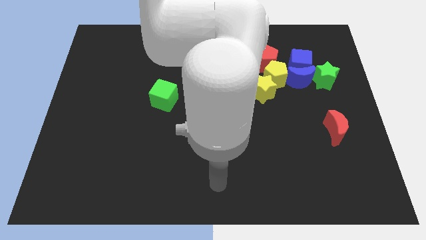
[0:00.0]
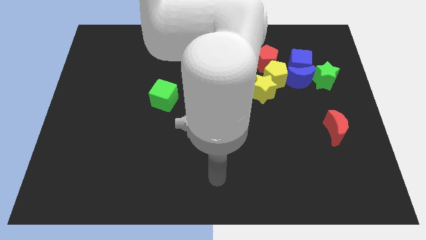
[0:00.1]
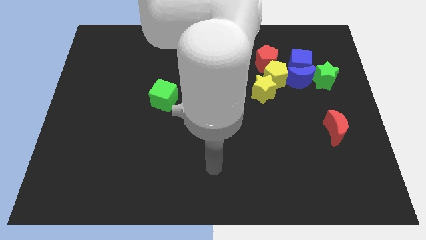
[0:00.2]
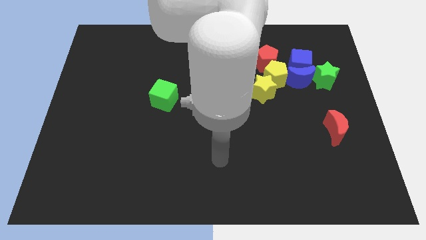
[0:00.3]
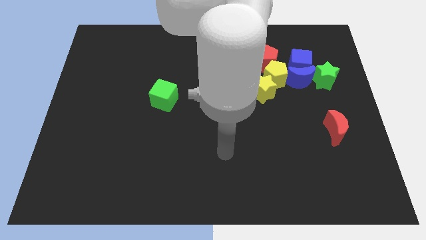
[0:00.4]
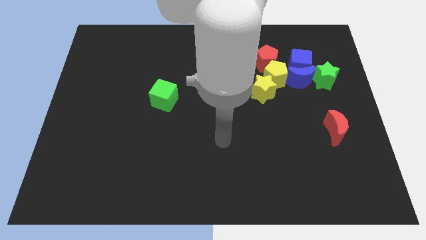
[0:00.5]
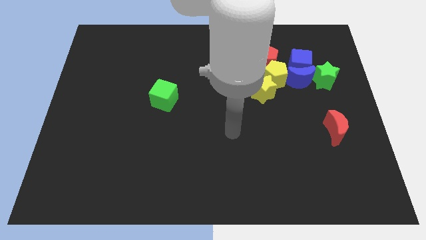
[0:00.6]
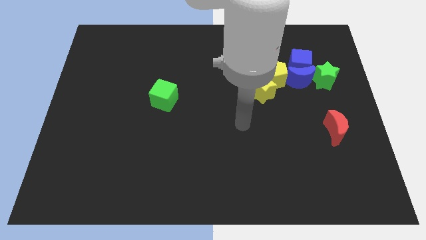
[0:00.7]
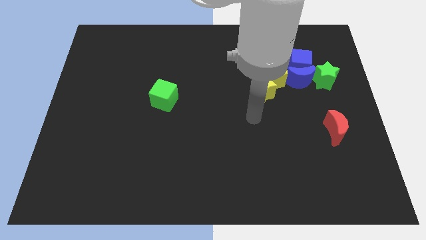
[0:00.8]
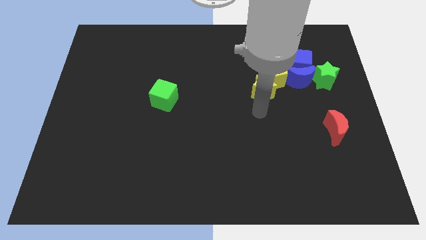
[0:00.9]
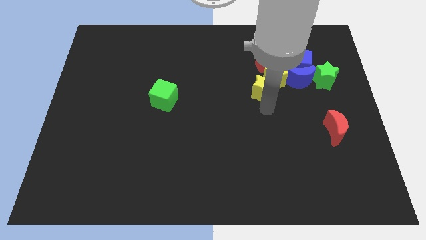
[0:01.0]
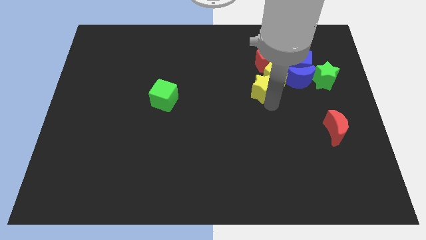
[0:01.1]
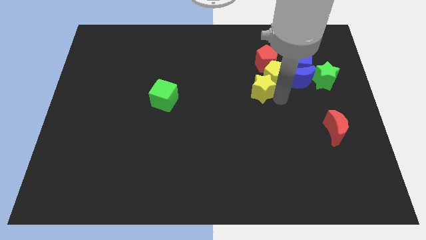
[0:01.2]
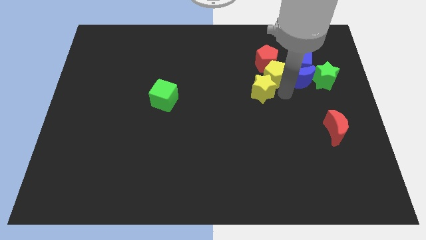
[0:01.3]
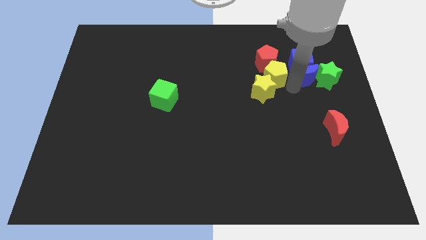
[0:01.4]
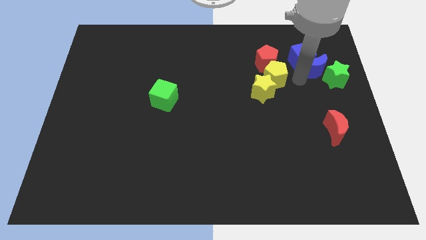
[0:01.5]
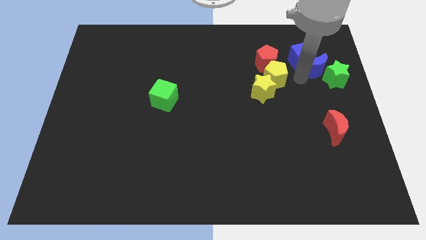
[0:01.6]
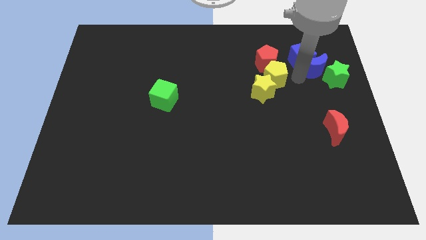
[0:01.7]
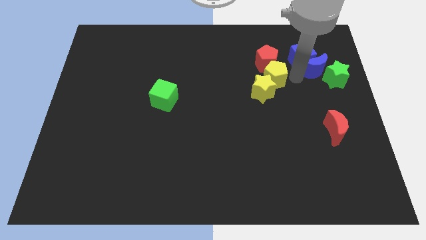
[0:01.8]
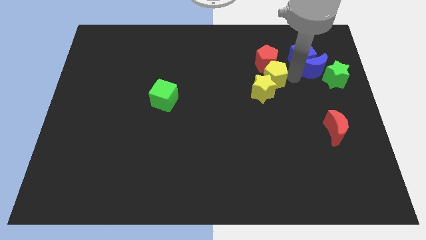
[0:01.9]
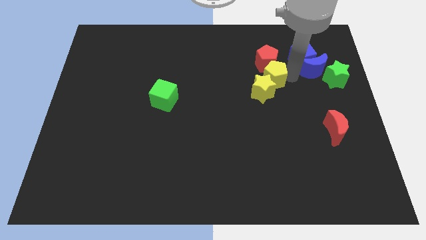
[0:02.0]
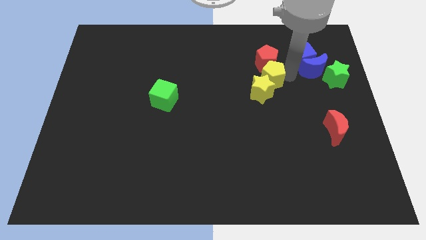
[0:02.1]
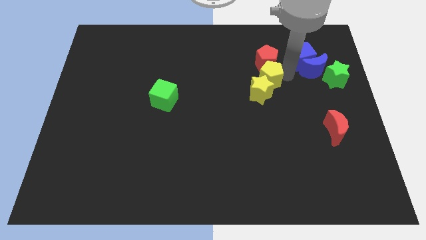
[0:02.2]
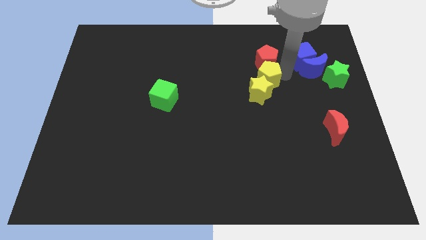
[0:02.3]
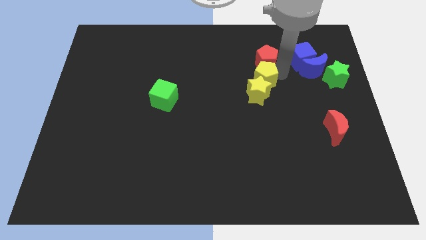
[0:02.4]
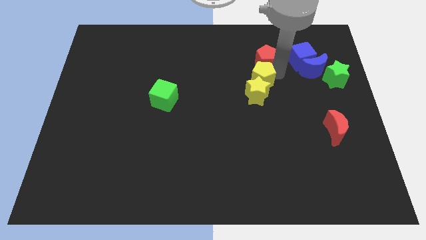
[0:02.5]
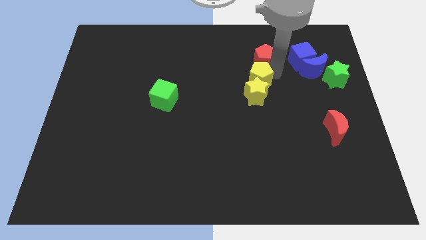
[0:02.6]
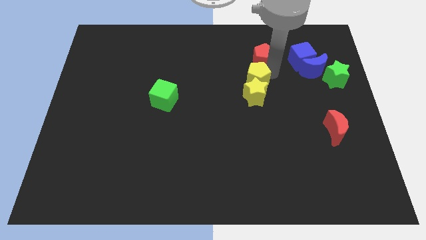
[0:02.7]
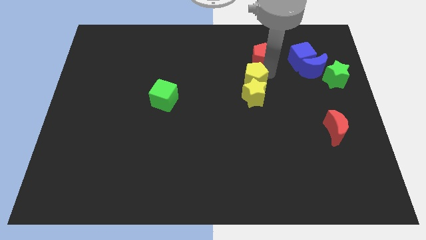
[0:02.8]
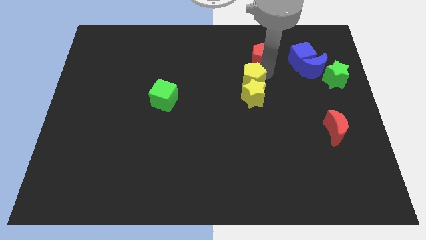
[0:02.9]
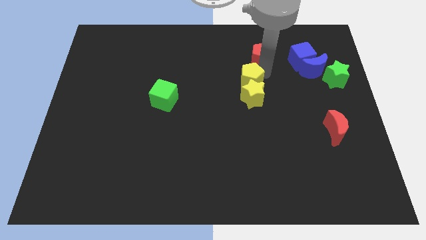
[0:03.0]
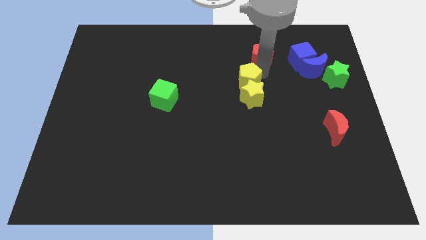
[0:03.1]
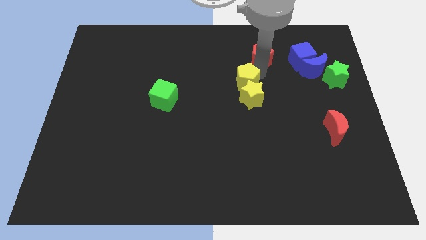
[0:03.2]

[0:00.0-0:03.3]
pull the yellow pentagon apart from the group of blocks

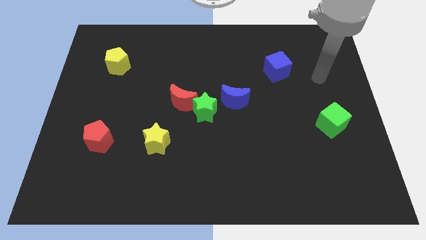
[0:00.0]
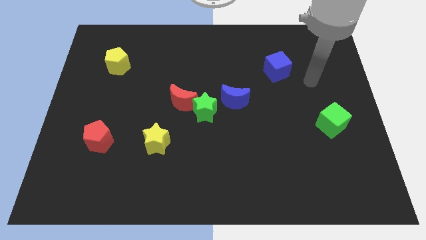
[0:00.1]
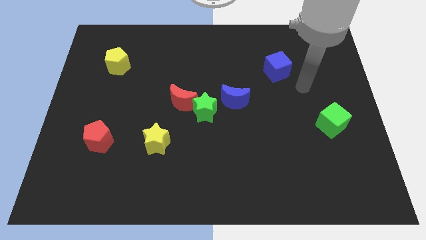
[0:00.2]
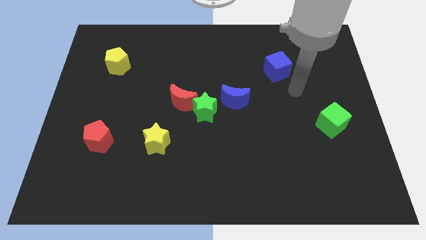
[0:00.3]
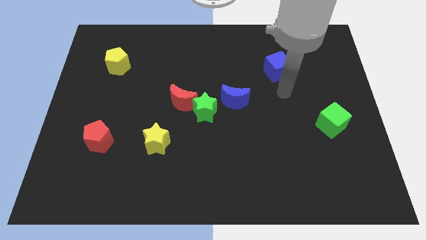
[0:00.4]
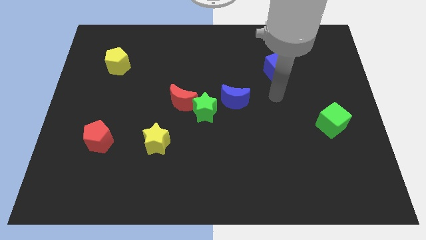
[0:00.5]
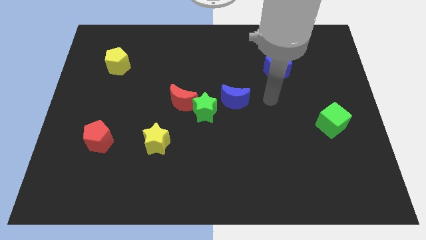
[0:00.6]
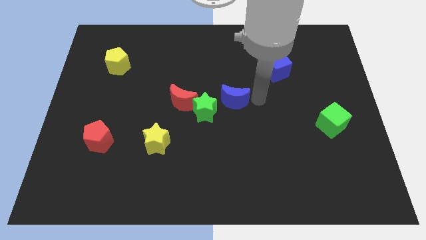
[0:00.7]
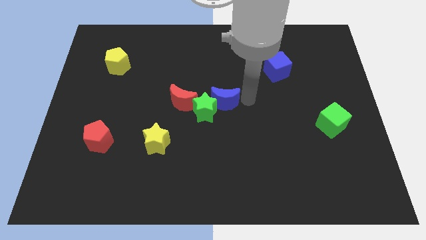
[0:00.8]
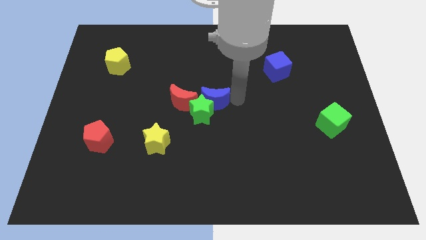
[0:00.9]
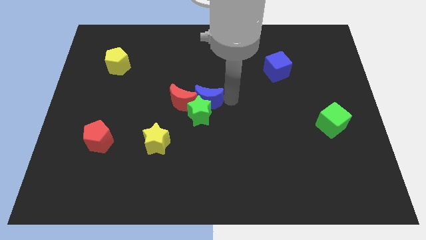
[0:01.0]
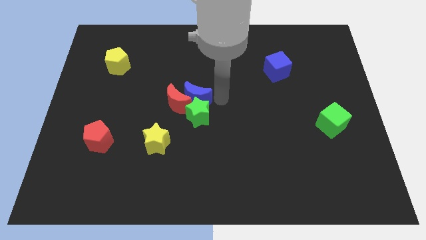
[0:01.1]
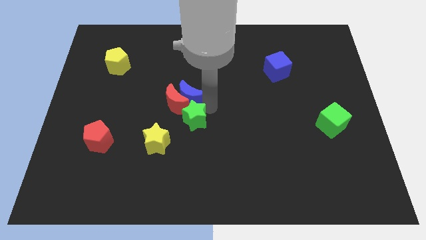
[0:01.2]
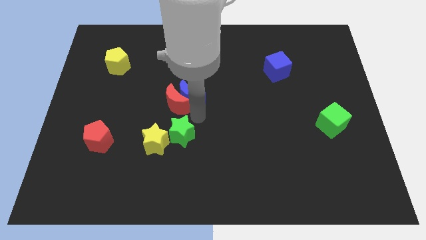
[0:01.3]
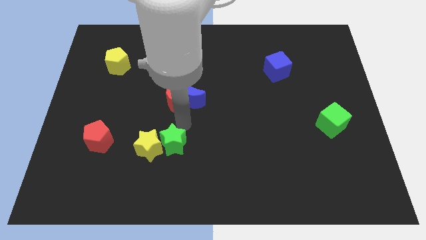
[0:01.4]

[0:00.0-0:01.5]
move the red moon away from the green star

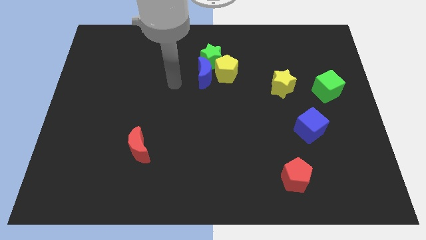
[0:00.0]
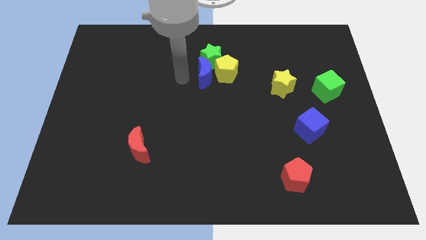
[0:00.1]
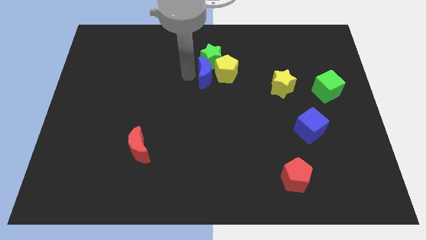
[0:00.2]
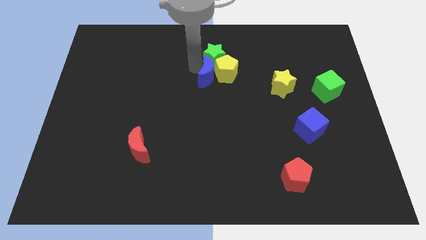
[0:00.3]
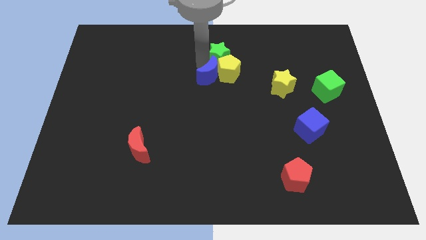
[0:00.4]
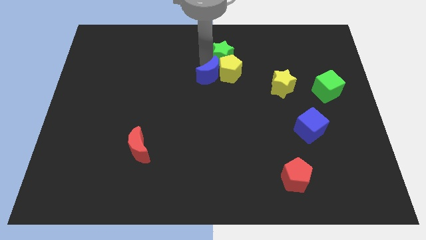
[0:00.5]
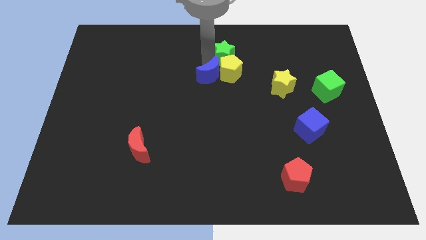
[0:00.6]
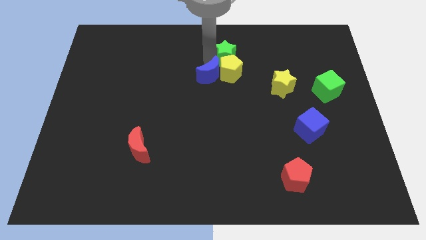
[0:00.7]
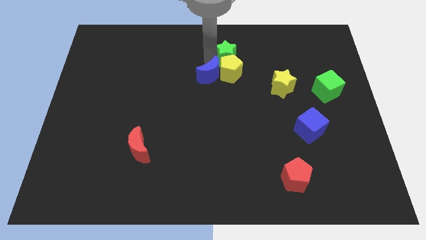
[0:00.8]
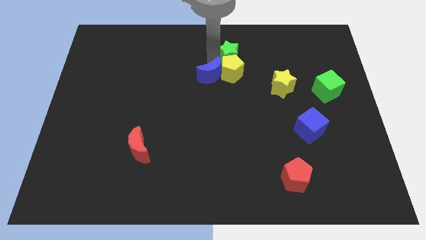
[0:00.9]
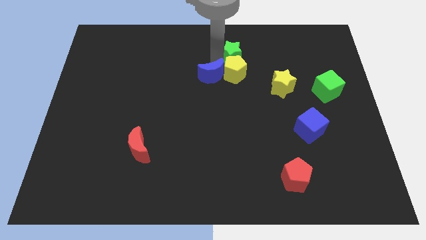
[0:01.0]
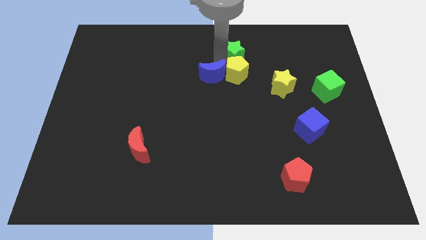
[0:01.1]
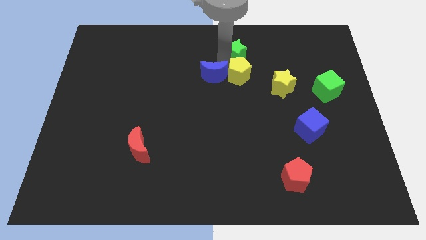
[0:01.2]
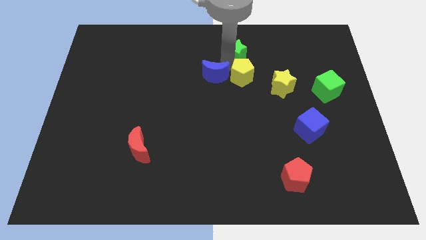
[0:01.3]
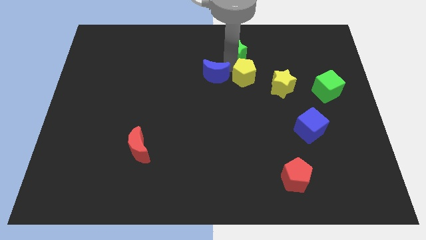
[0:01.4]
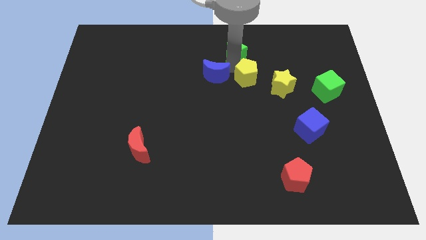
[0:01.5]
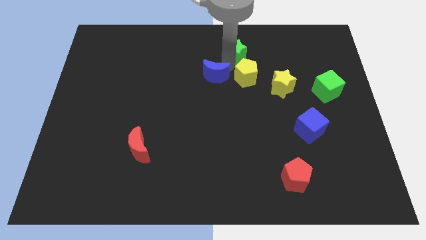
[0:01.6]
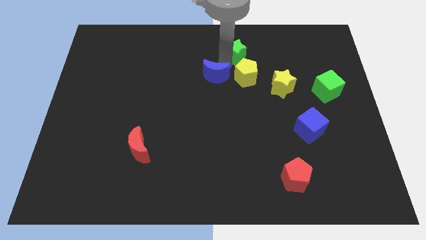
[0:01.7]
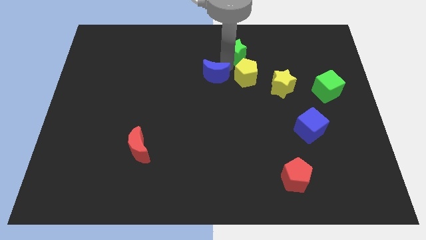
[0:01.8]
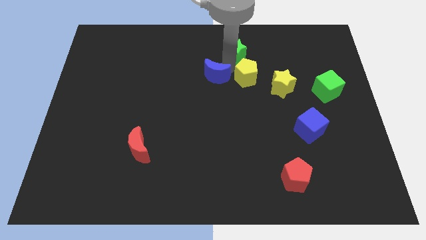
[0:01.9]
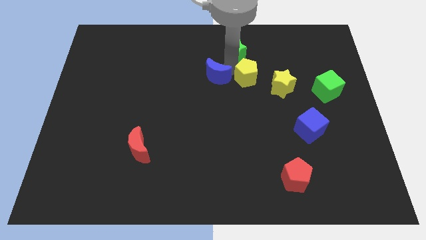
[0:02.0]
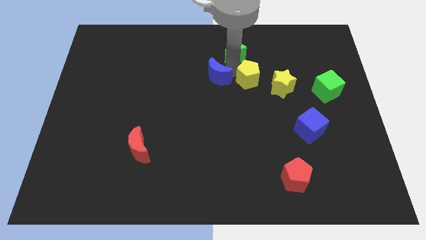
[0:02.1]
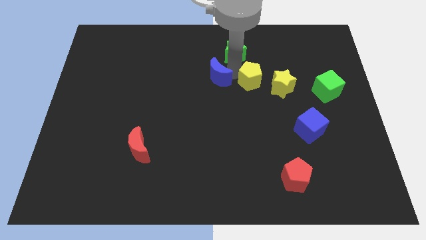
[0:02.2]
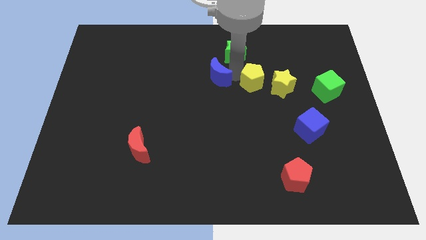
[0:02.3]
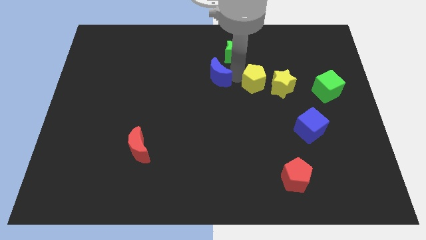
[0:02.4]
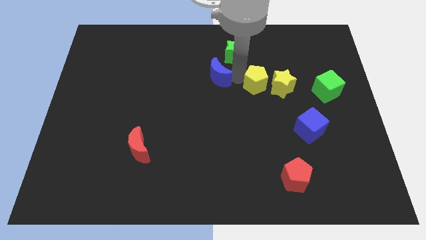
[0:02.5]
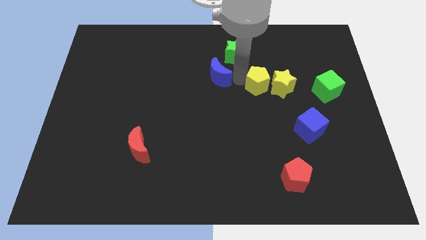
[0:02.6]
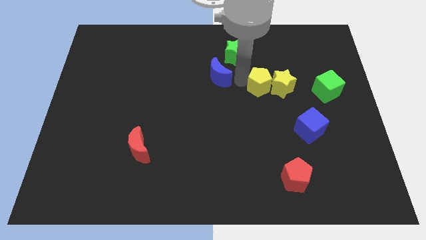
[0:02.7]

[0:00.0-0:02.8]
pull the yellow pentagon apart from the blue moon and green star

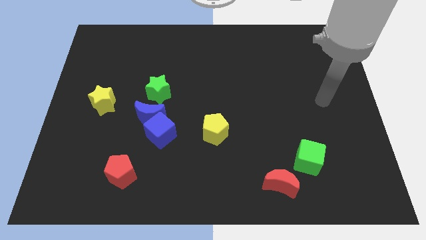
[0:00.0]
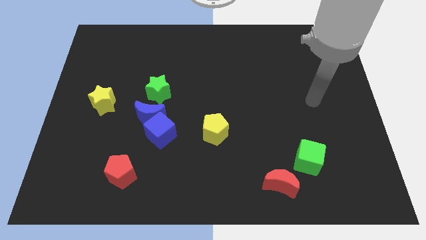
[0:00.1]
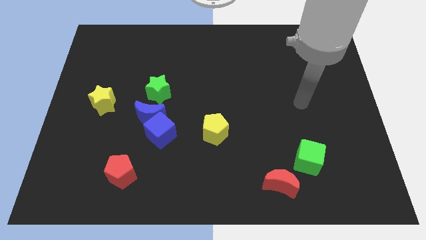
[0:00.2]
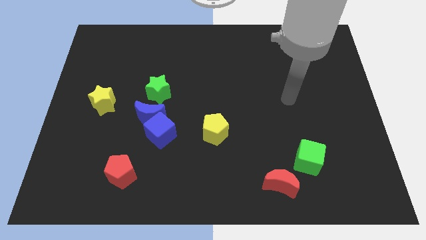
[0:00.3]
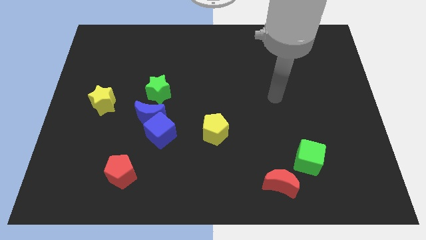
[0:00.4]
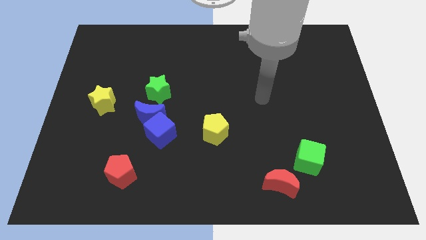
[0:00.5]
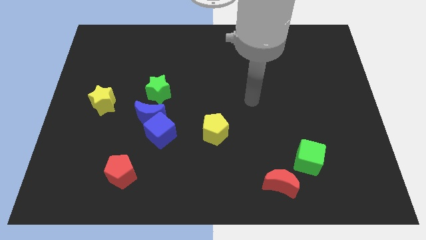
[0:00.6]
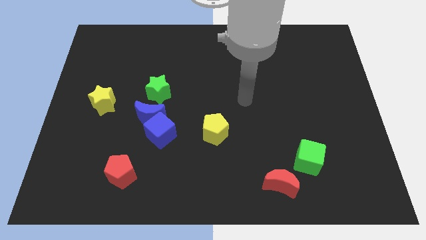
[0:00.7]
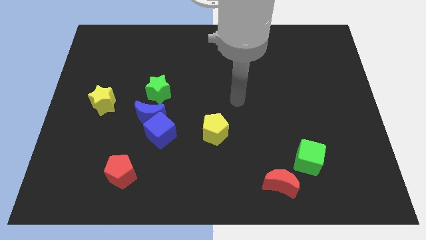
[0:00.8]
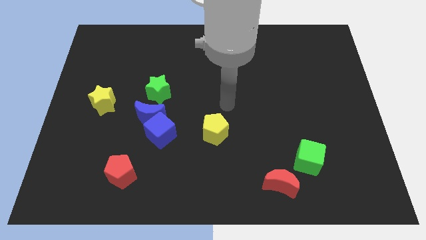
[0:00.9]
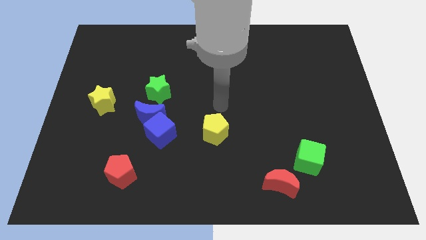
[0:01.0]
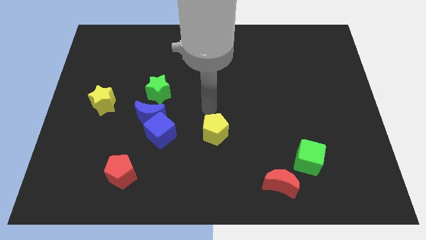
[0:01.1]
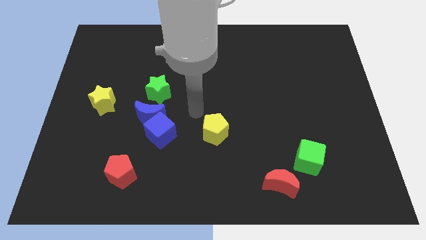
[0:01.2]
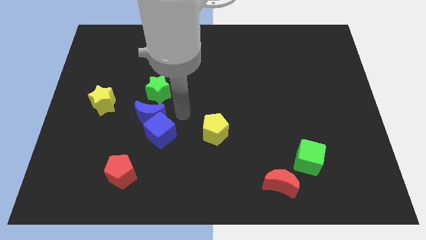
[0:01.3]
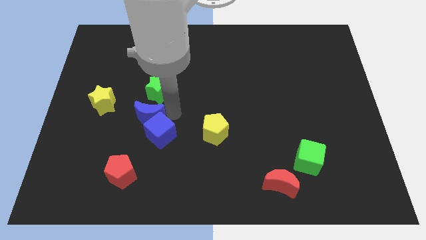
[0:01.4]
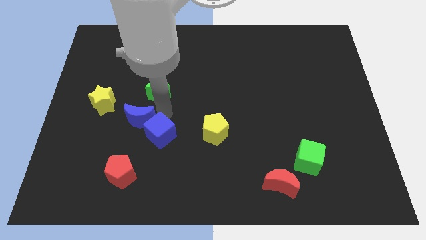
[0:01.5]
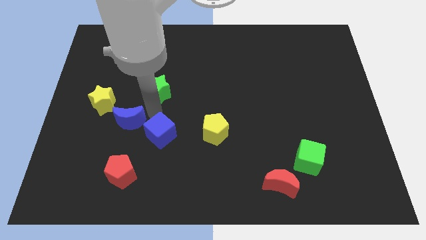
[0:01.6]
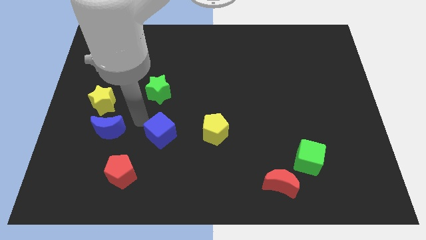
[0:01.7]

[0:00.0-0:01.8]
move the blue cube away from the blue moon
